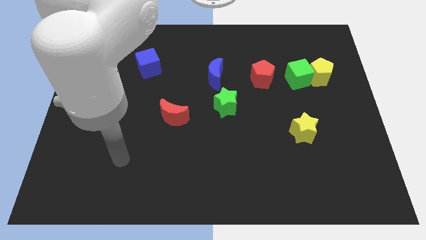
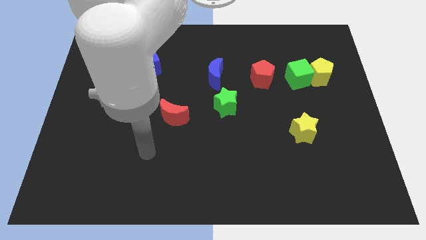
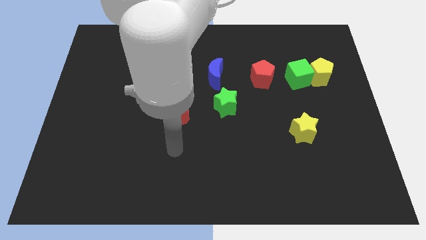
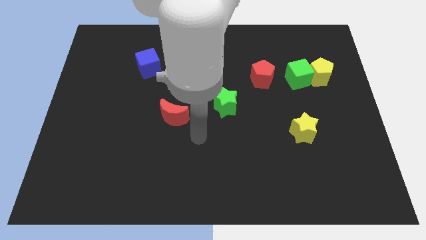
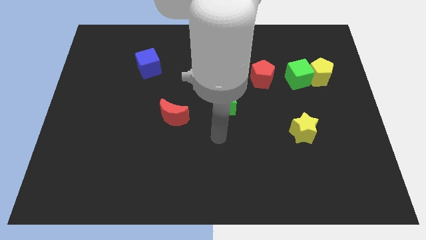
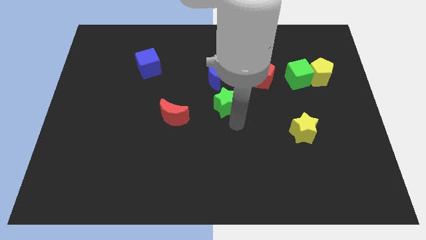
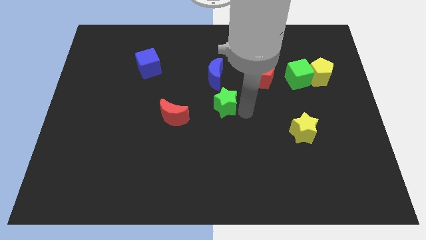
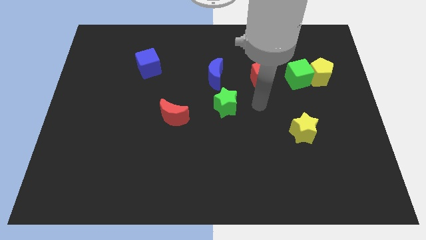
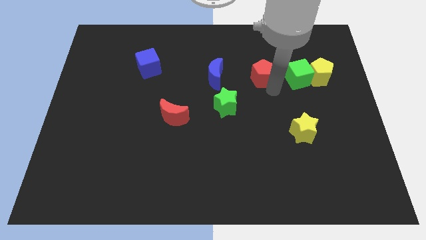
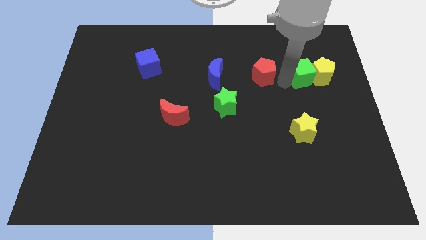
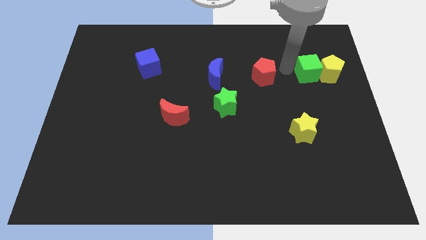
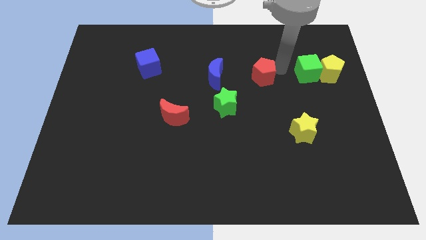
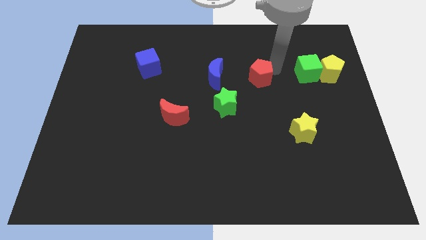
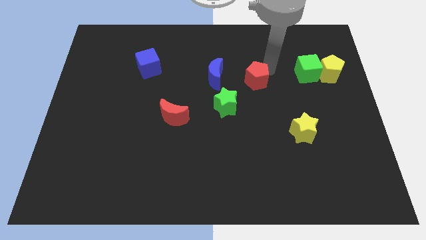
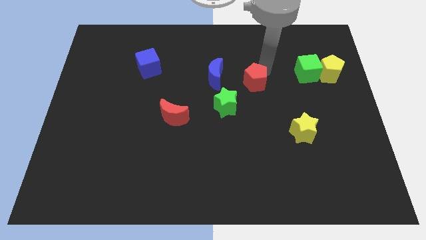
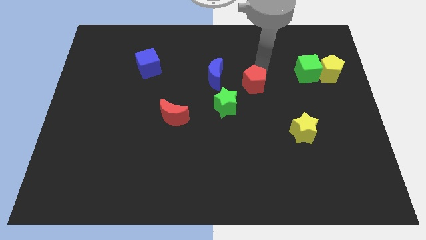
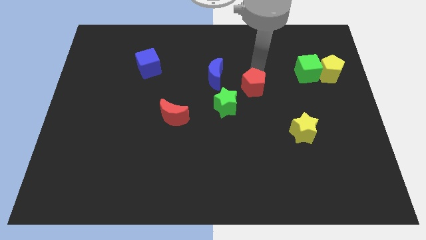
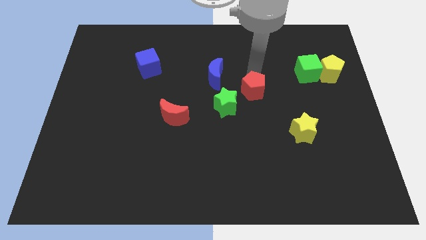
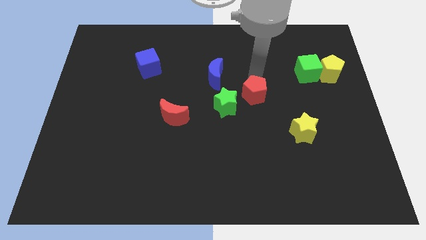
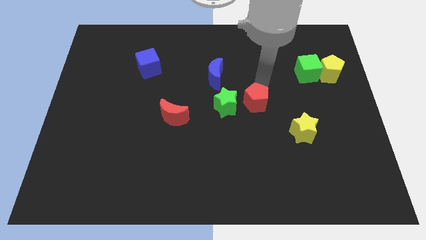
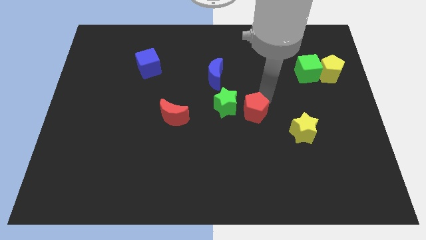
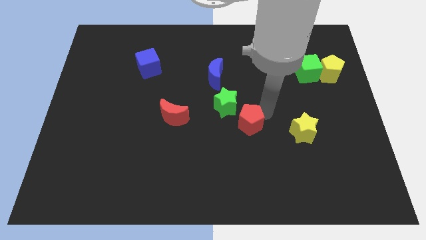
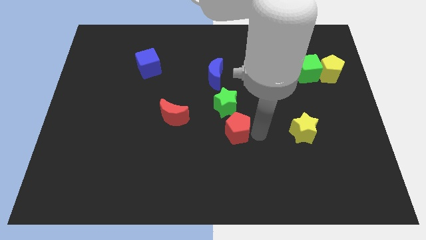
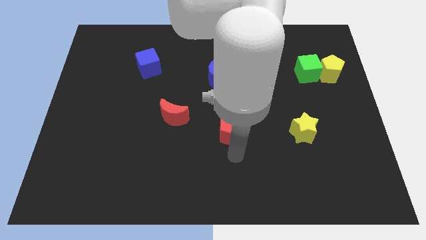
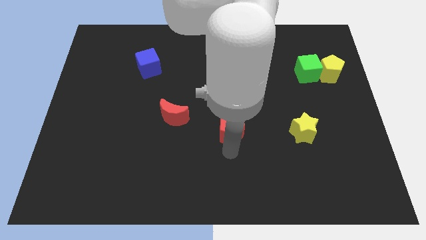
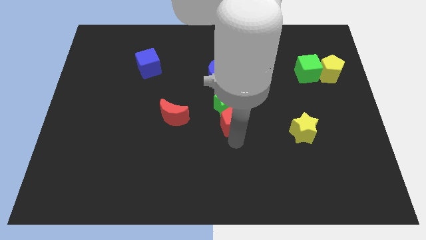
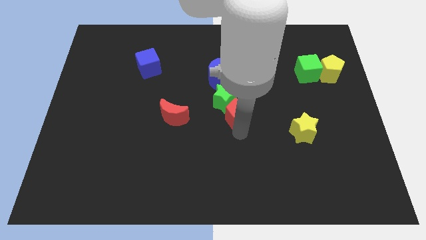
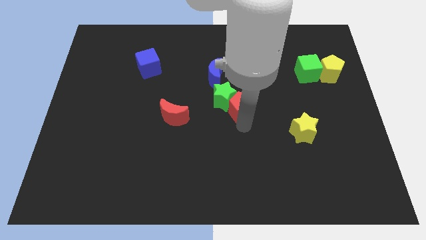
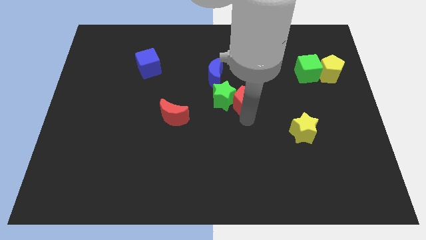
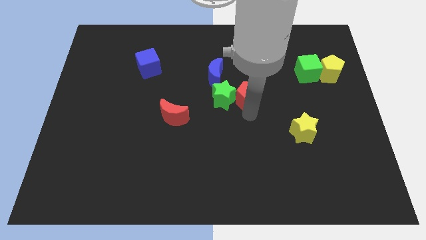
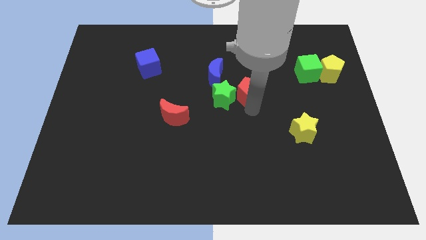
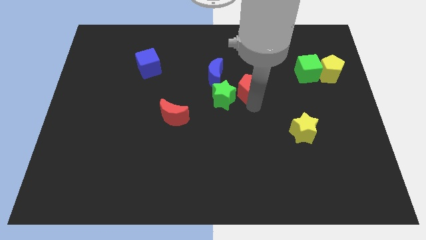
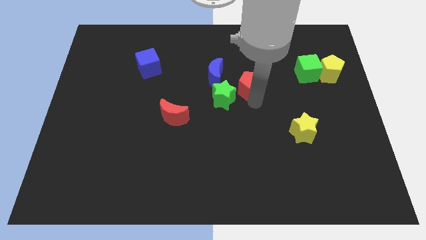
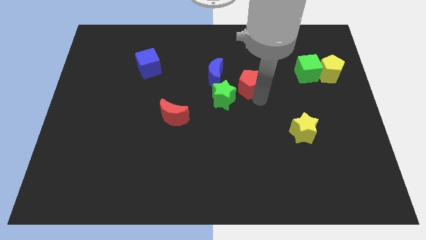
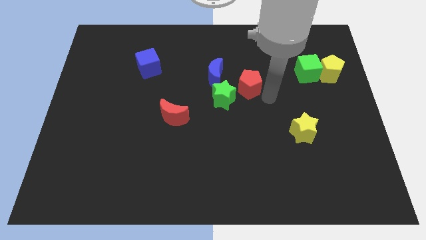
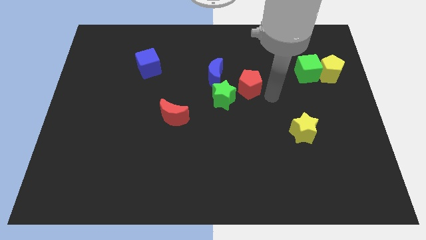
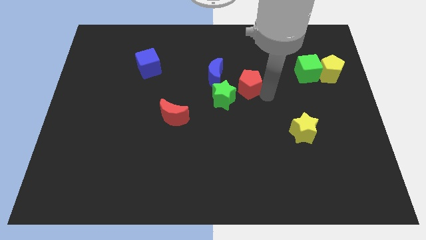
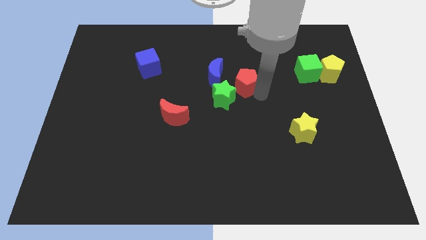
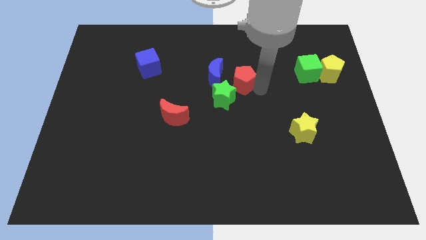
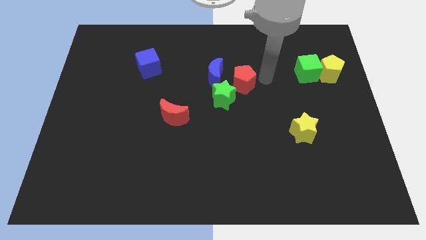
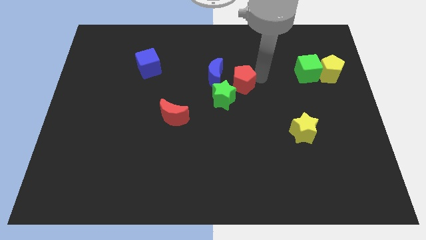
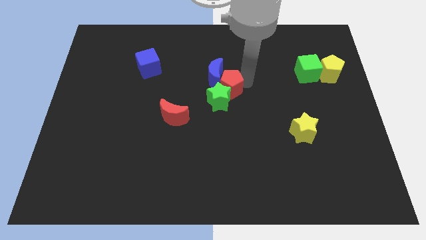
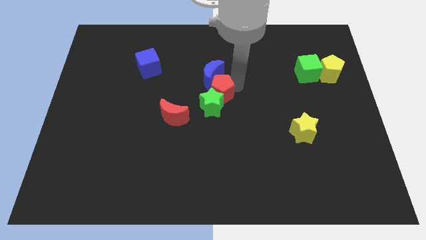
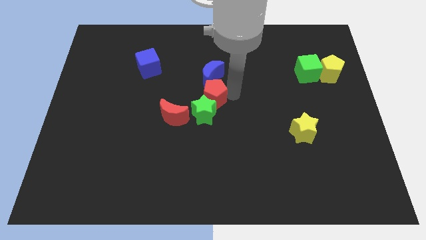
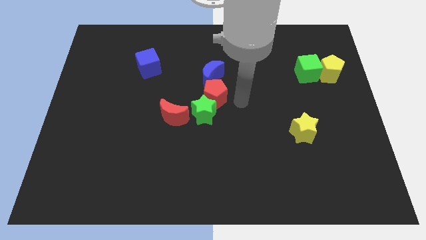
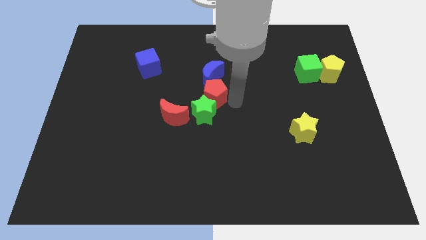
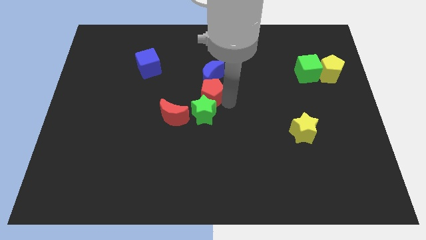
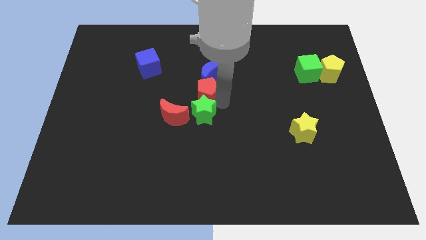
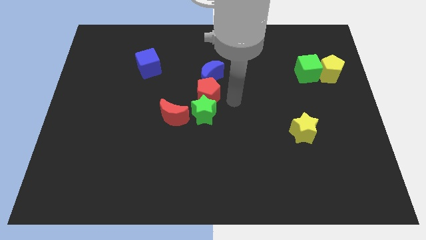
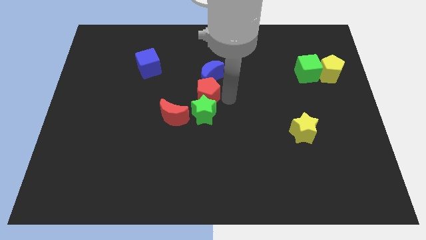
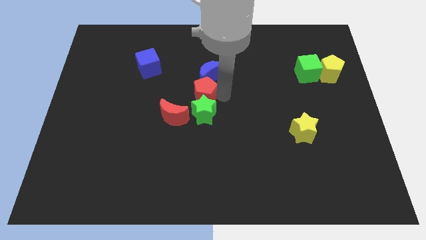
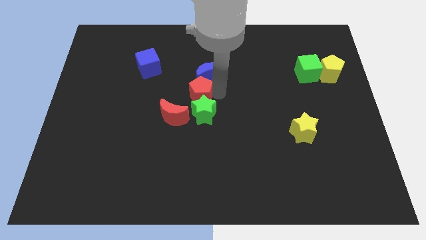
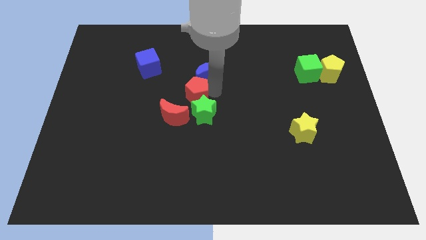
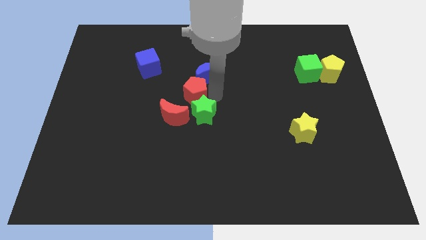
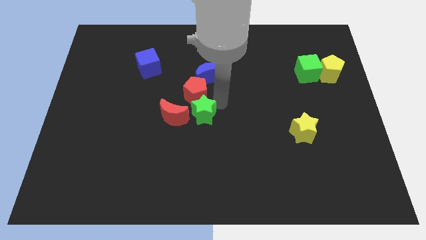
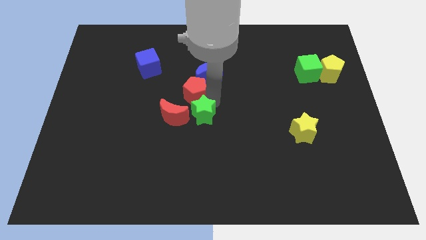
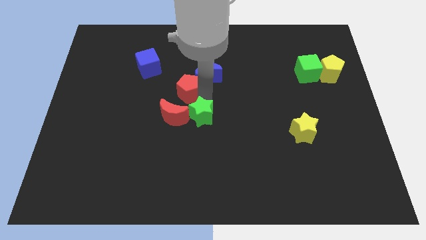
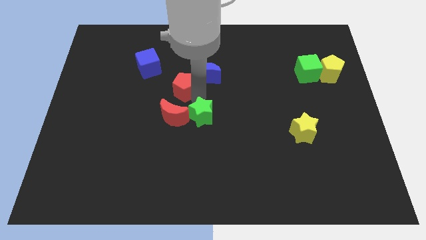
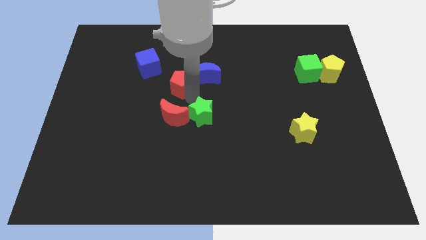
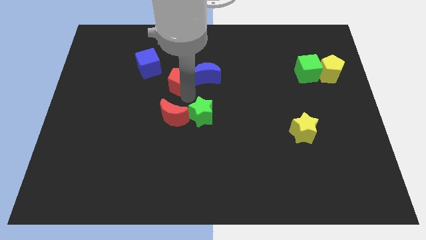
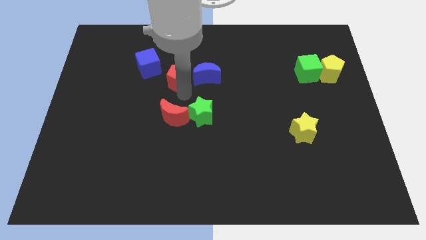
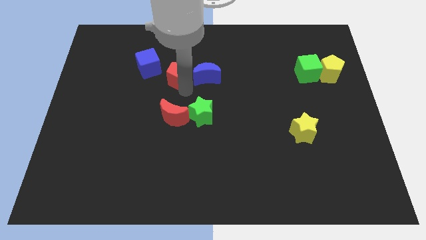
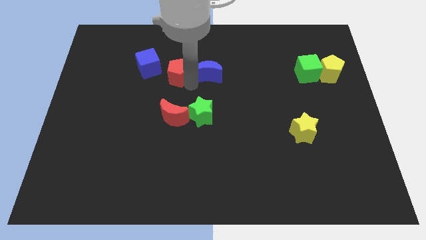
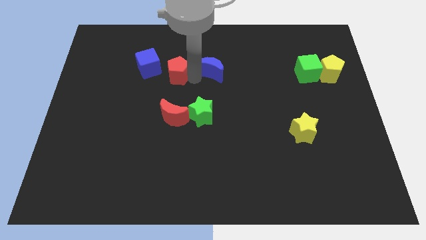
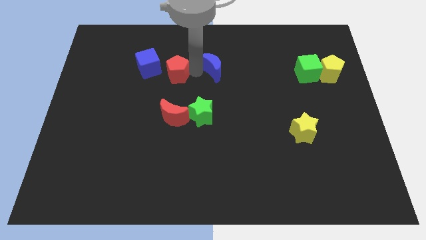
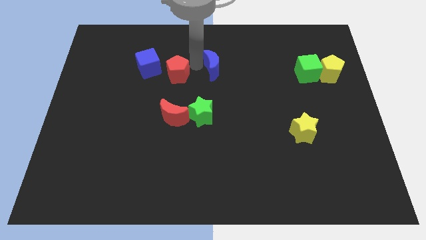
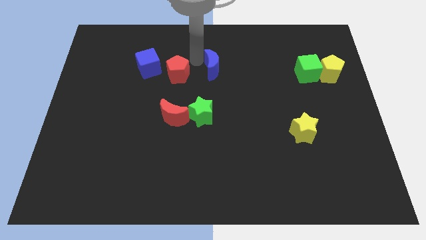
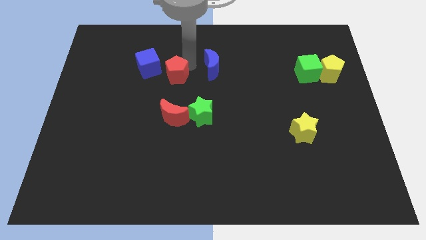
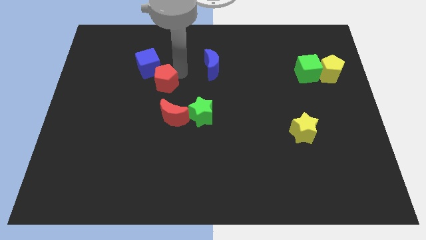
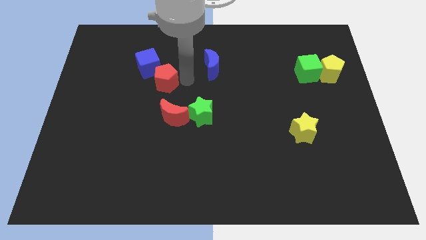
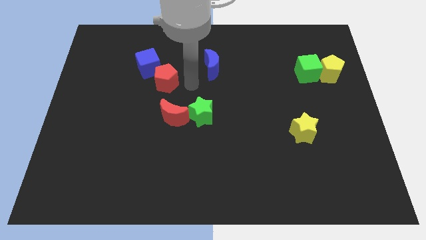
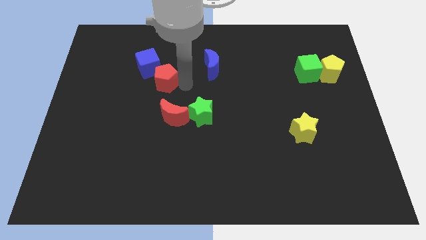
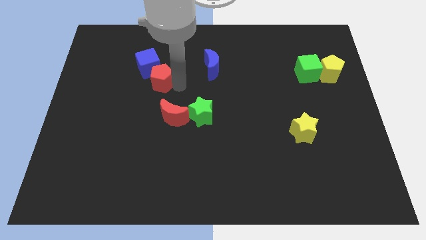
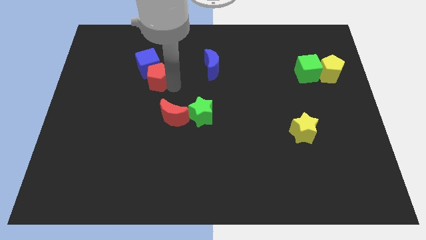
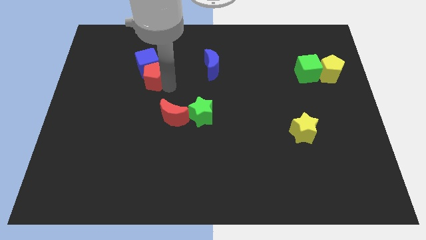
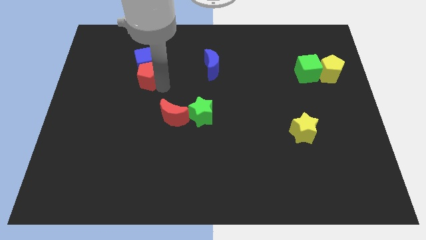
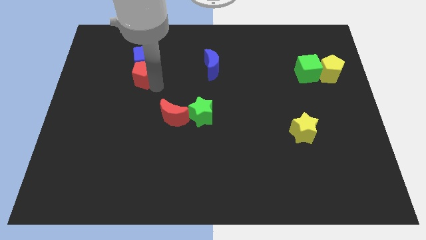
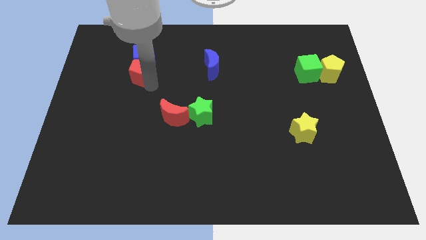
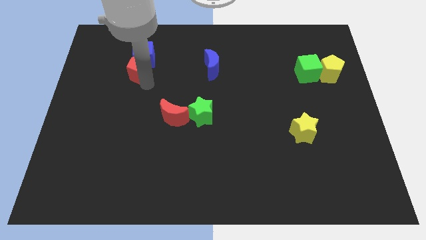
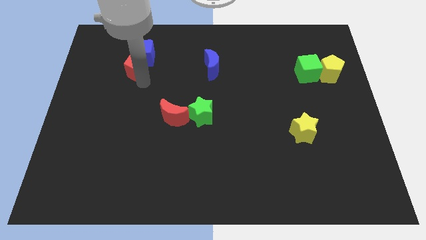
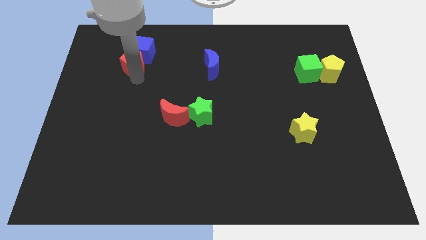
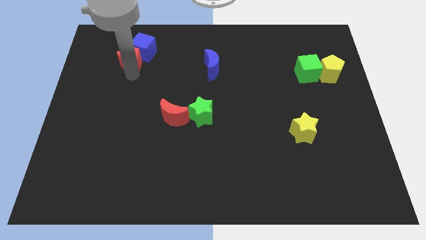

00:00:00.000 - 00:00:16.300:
slide the red pentagon left of the blue cube
